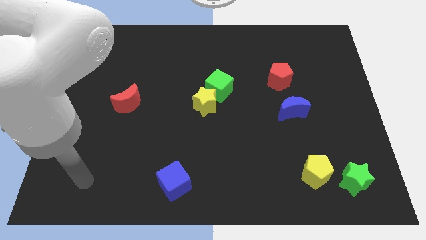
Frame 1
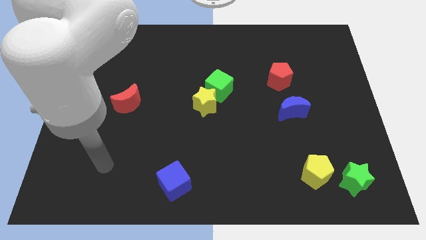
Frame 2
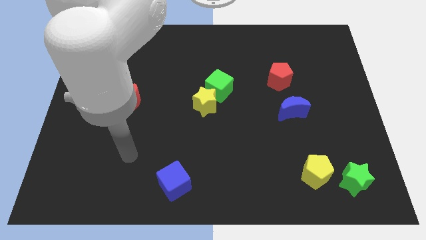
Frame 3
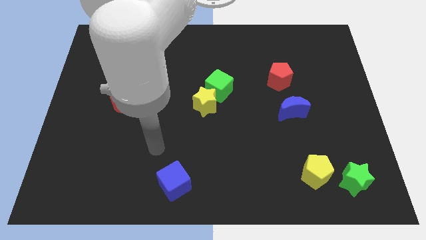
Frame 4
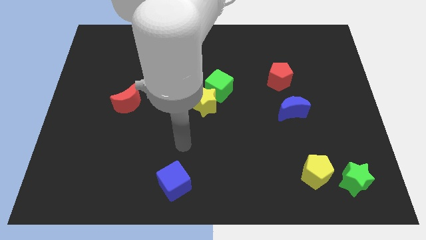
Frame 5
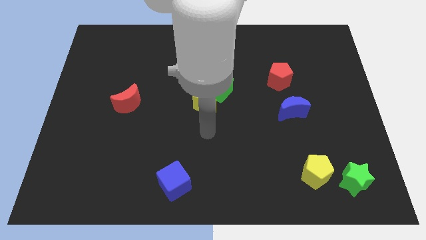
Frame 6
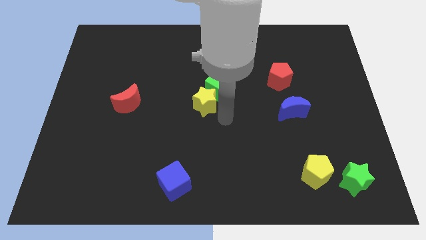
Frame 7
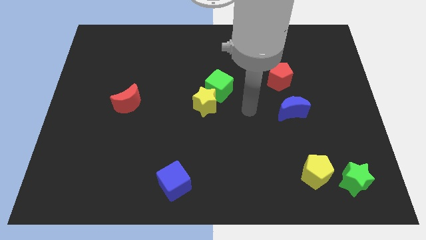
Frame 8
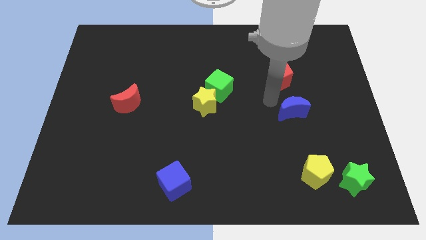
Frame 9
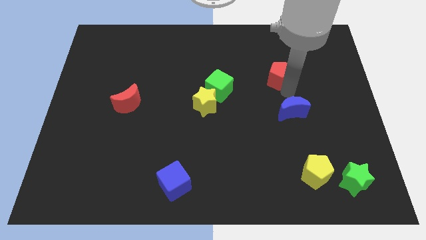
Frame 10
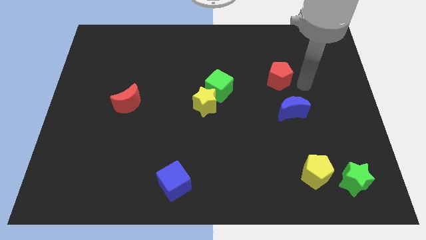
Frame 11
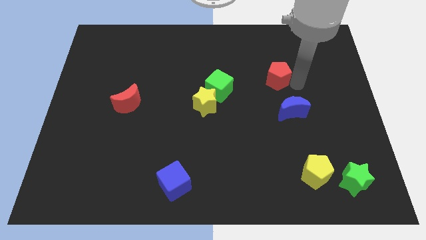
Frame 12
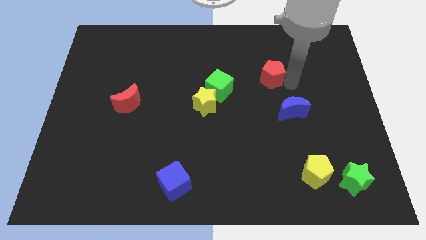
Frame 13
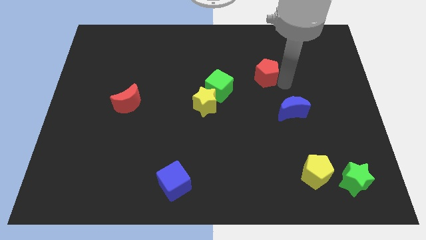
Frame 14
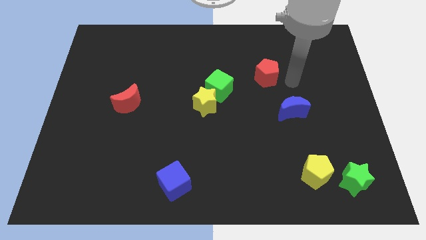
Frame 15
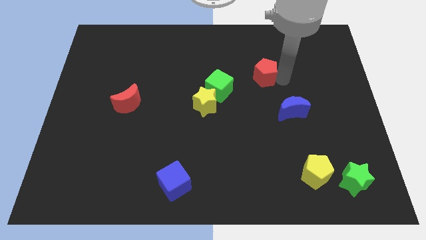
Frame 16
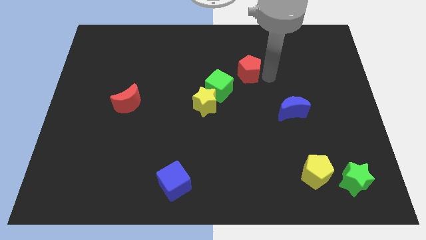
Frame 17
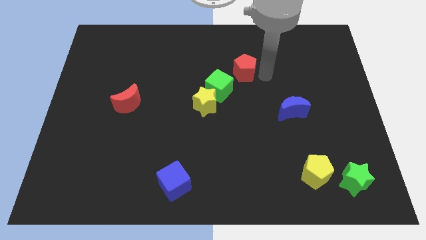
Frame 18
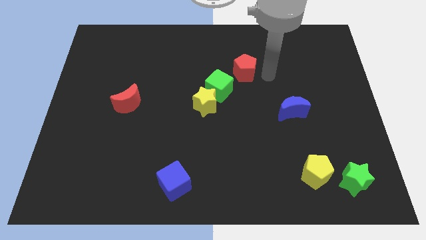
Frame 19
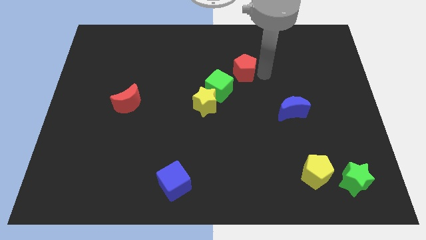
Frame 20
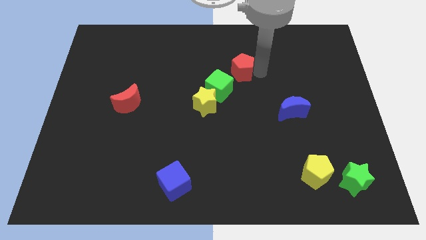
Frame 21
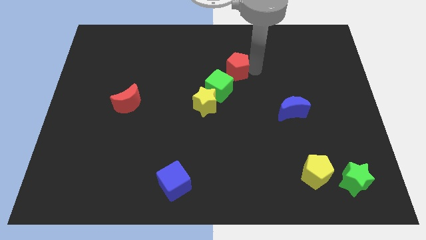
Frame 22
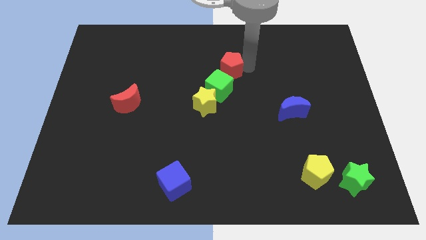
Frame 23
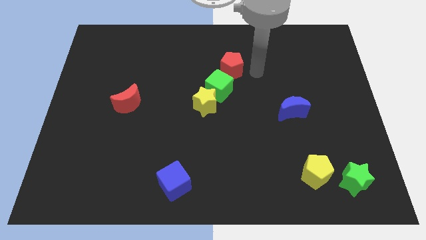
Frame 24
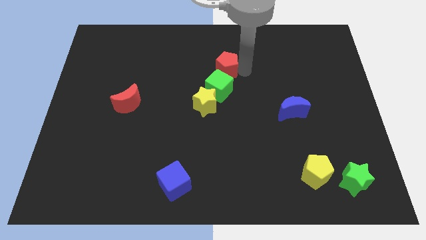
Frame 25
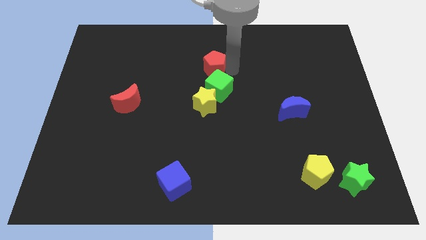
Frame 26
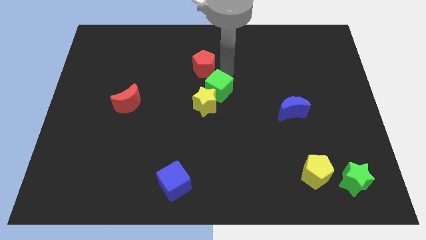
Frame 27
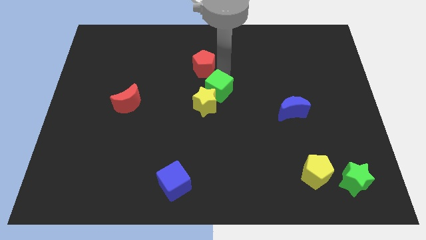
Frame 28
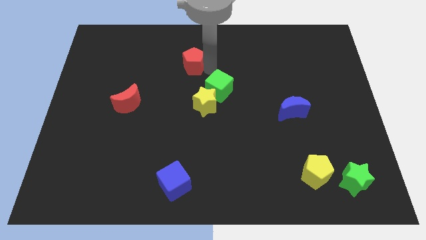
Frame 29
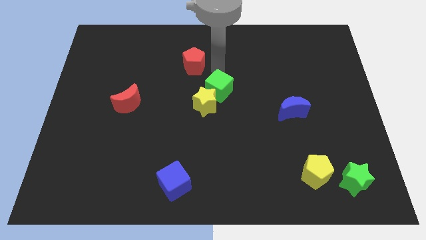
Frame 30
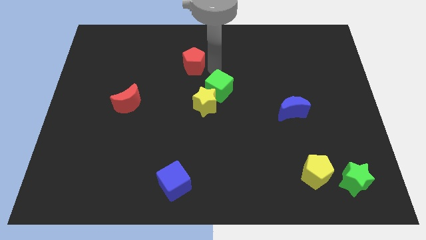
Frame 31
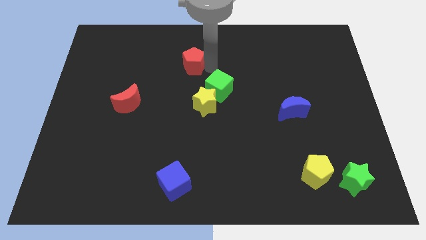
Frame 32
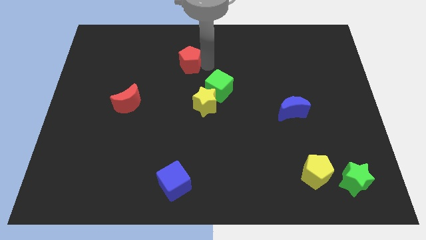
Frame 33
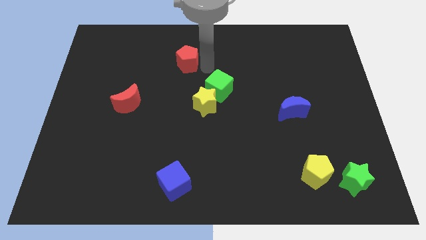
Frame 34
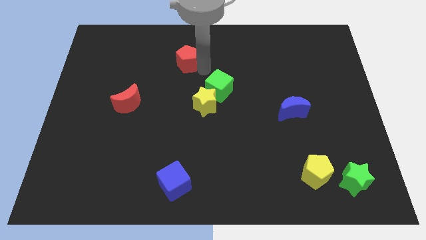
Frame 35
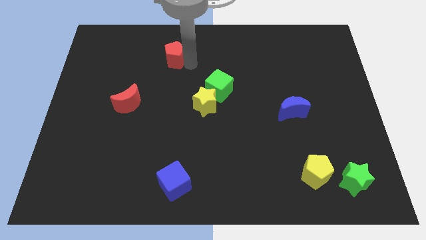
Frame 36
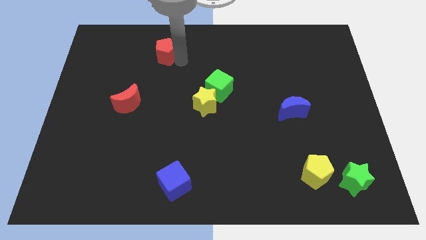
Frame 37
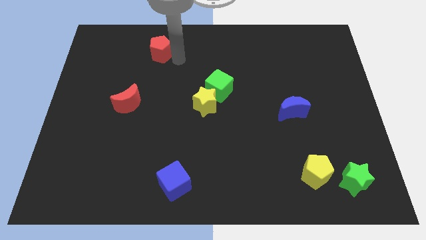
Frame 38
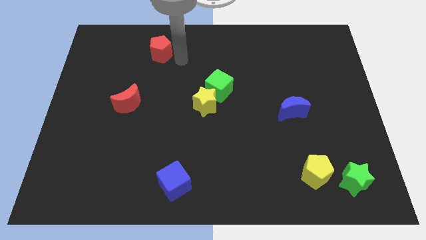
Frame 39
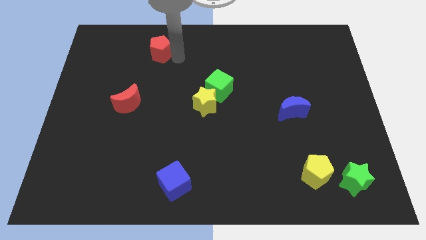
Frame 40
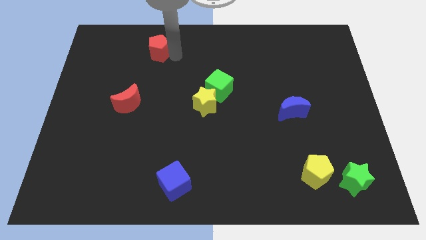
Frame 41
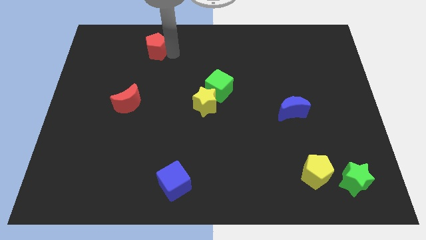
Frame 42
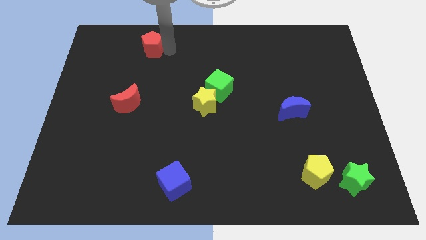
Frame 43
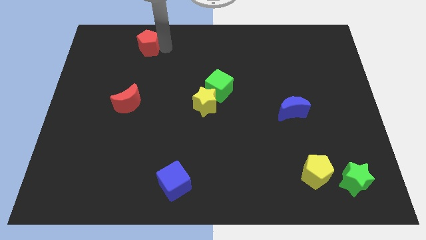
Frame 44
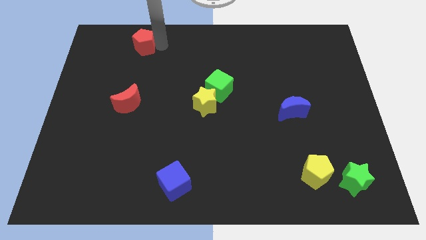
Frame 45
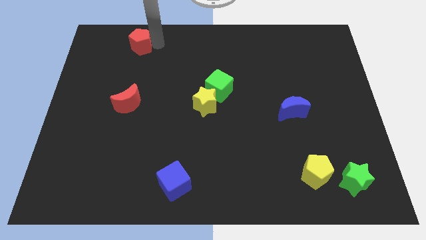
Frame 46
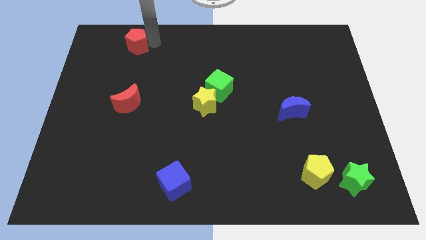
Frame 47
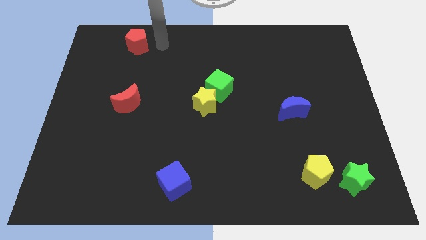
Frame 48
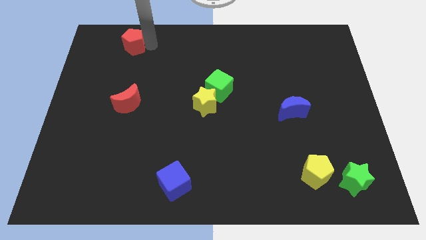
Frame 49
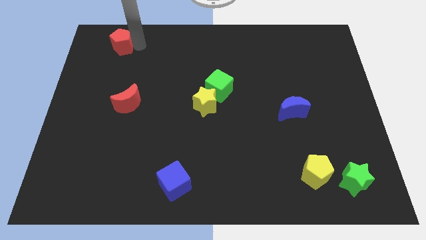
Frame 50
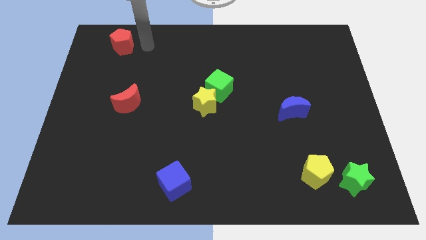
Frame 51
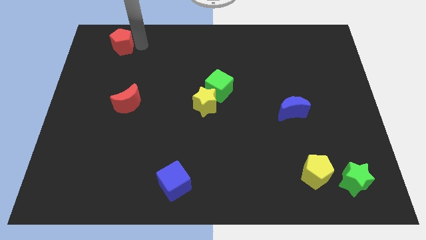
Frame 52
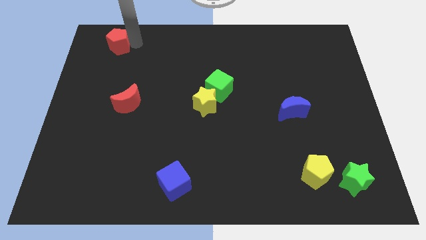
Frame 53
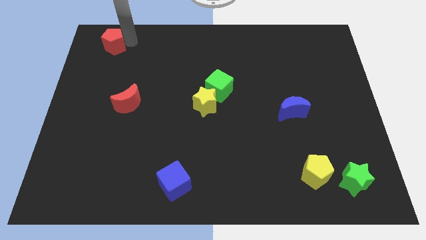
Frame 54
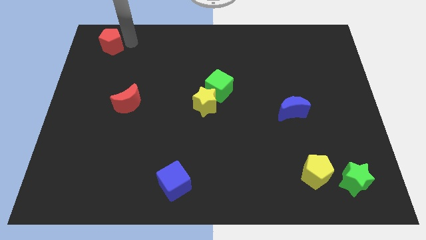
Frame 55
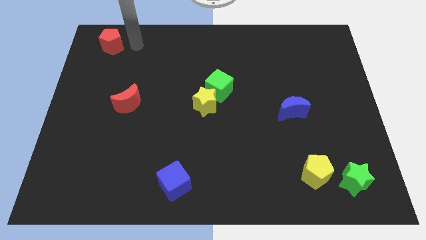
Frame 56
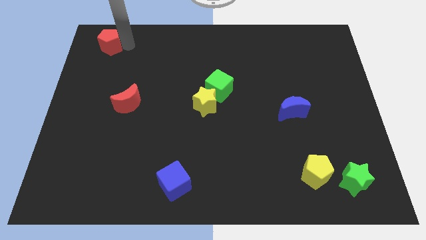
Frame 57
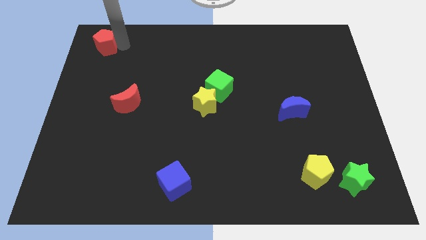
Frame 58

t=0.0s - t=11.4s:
push the red pentagon to the upper left corner
